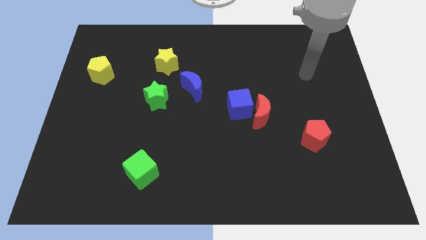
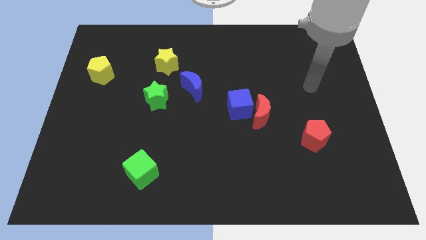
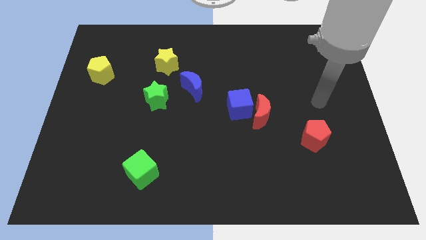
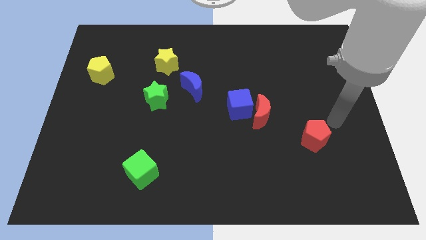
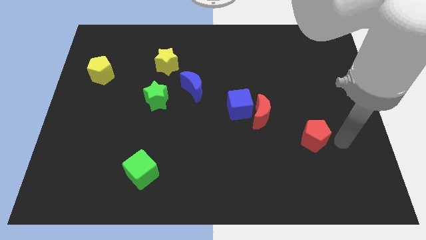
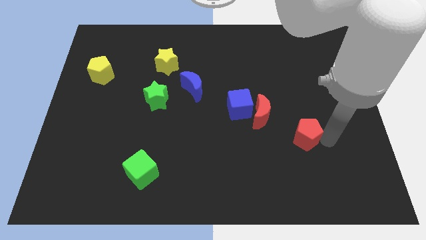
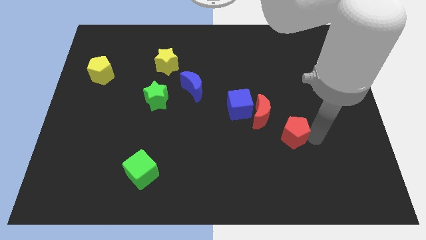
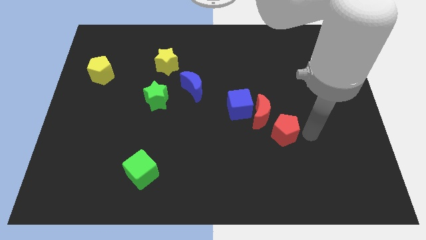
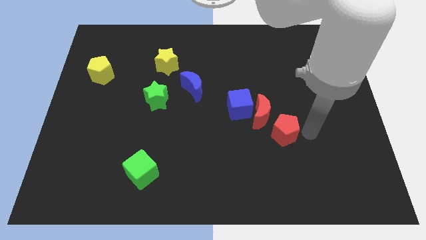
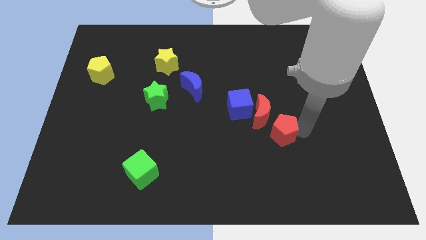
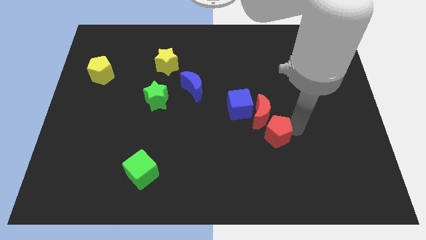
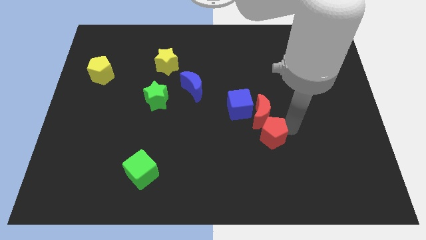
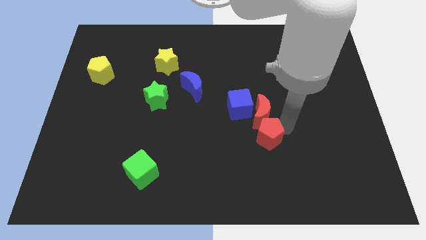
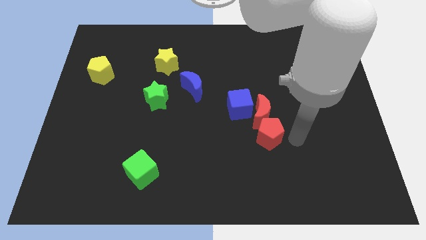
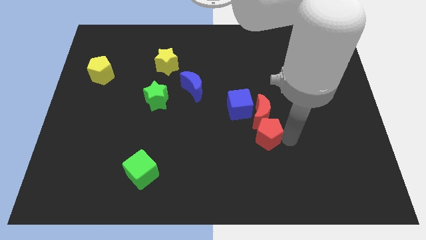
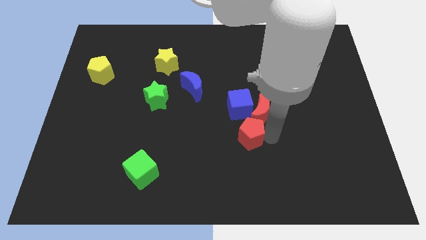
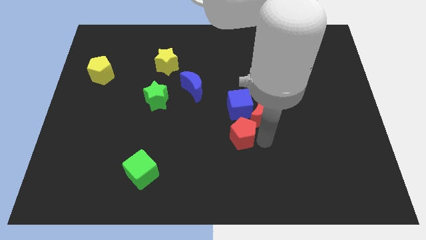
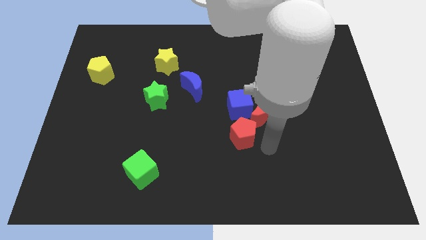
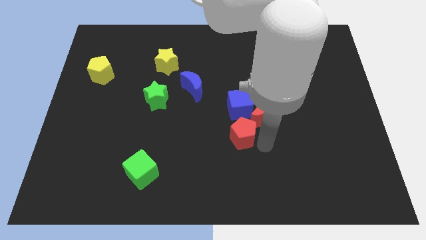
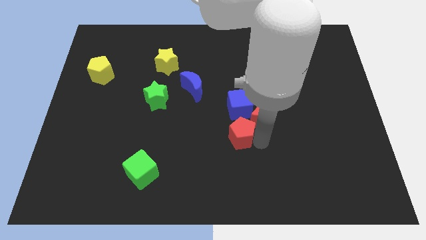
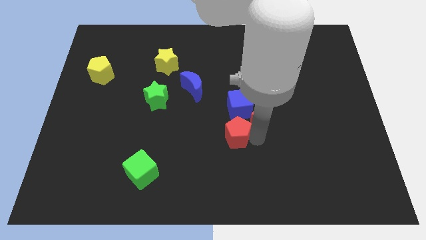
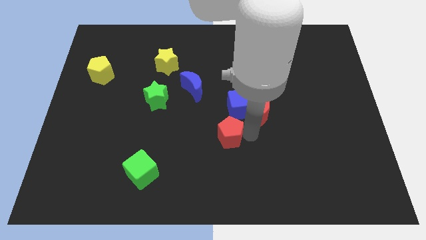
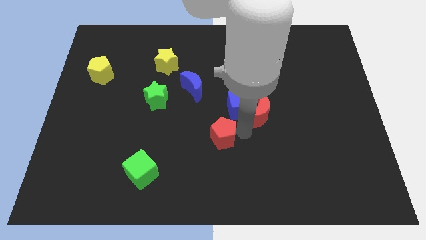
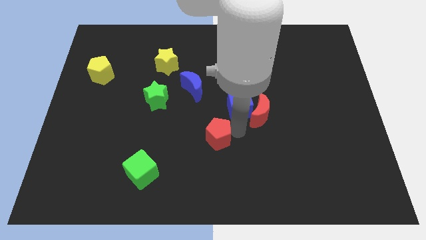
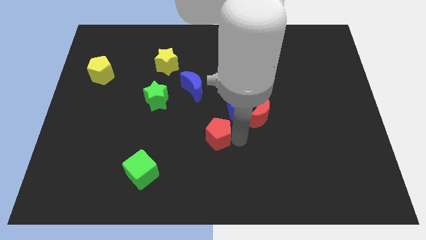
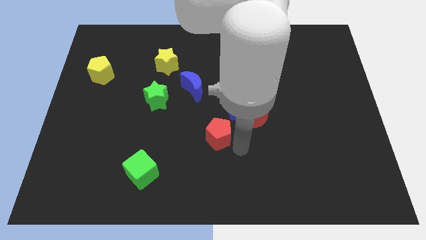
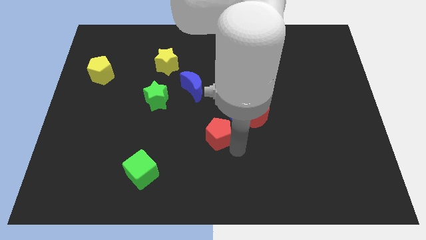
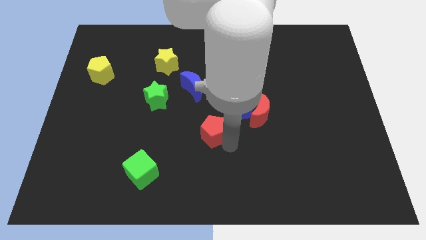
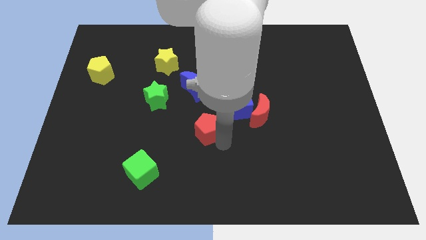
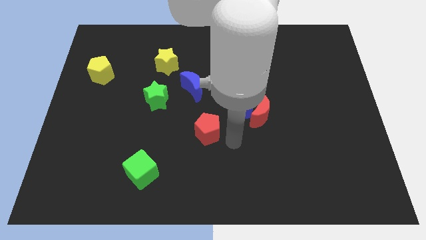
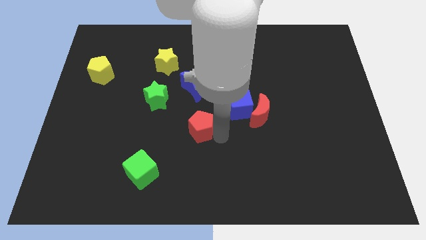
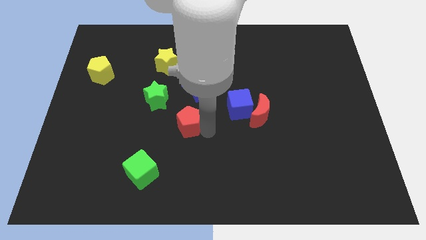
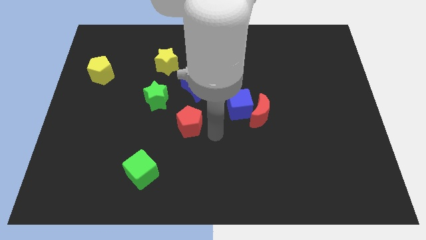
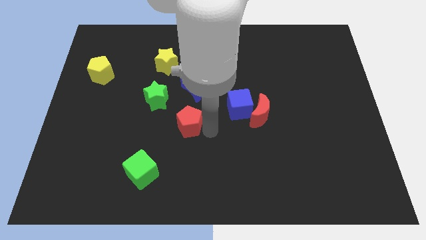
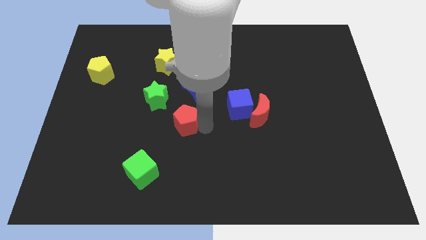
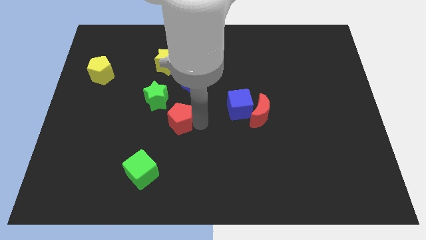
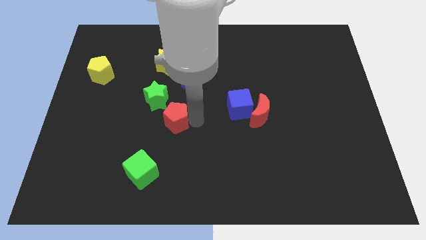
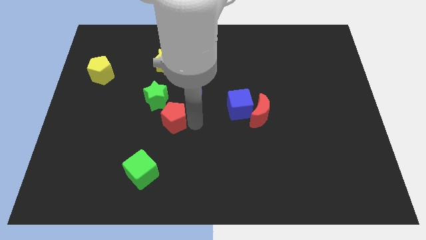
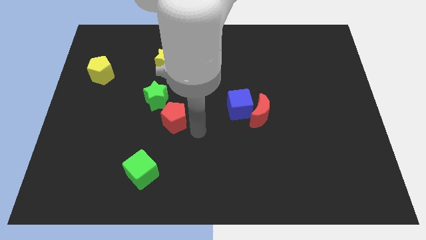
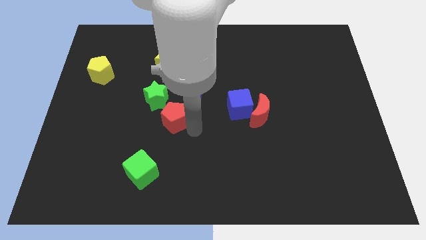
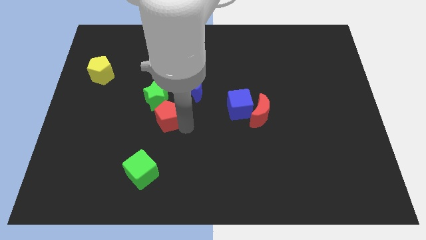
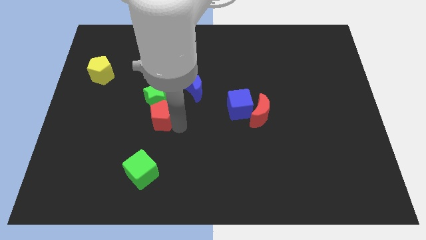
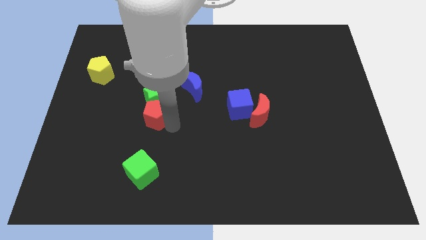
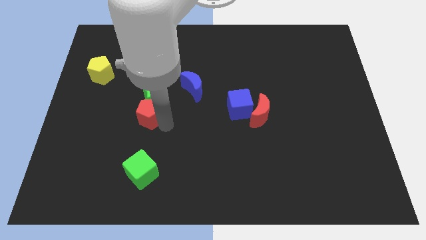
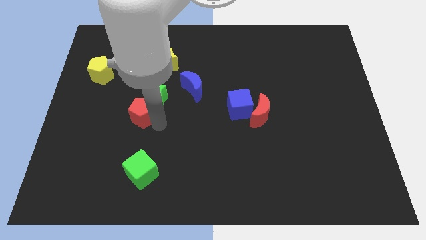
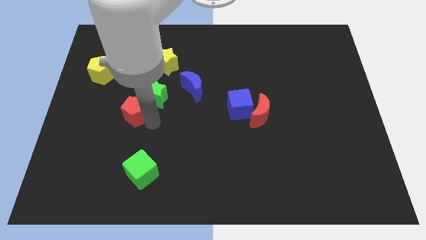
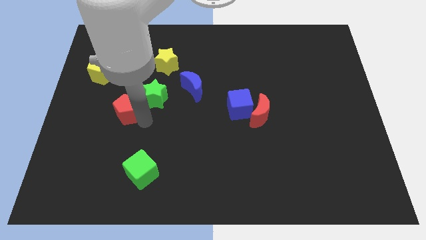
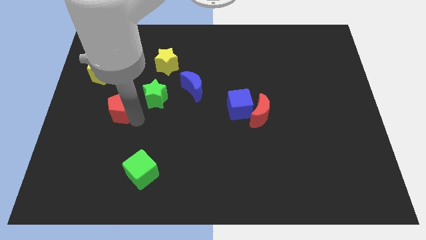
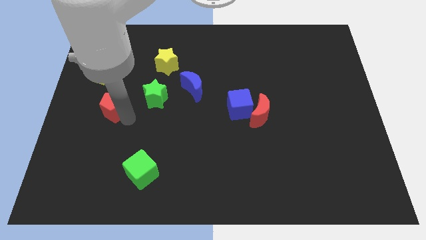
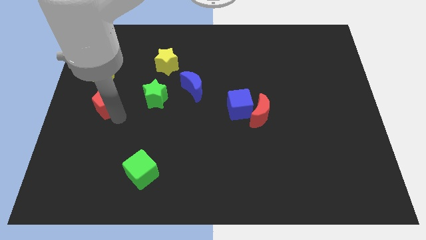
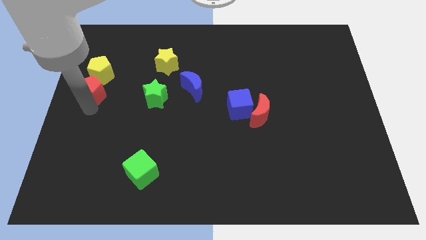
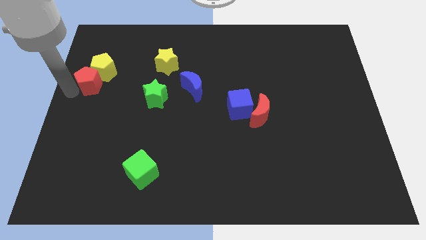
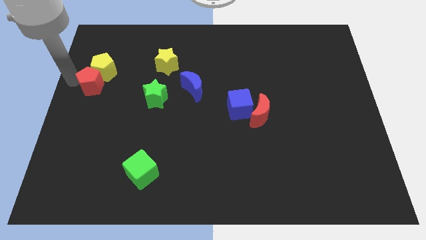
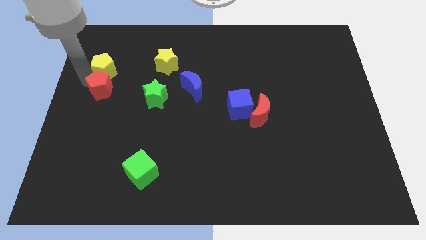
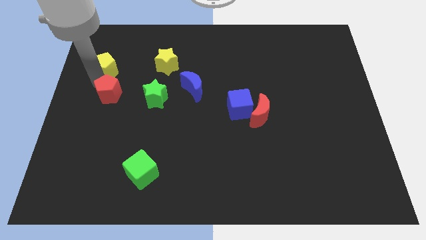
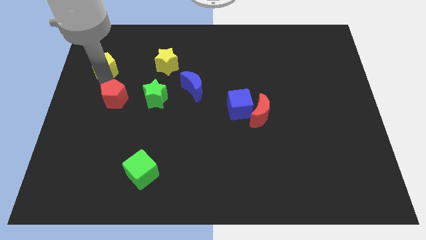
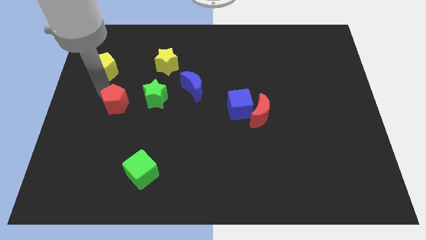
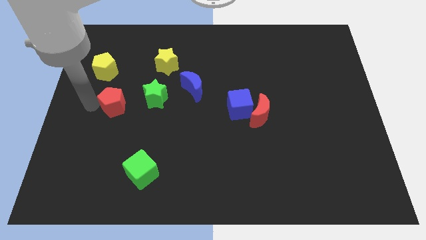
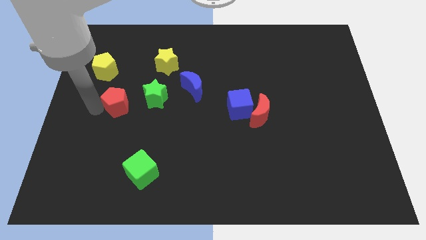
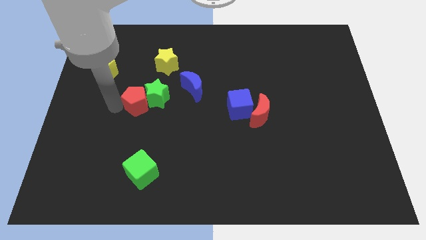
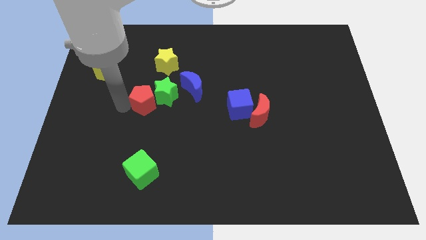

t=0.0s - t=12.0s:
move the red pentagon below the yellow star
